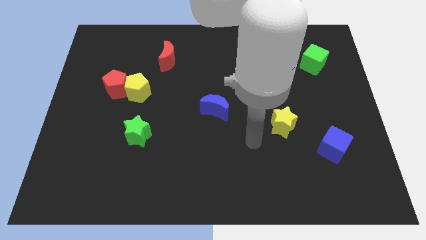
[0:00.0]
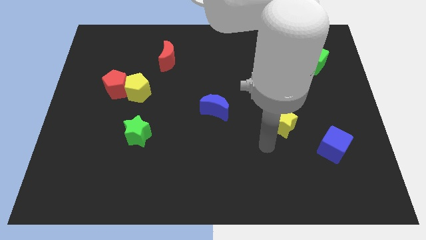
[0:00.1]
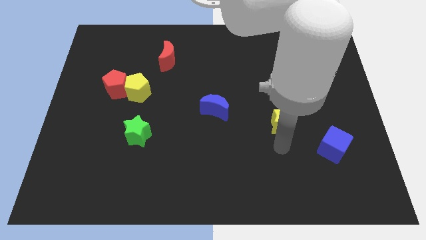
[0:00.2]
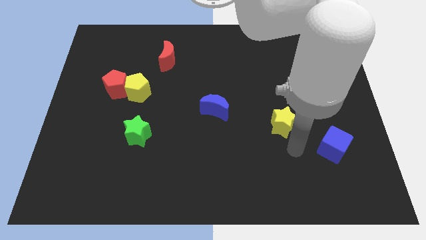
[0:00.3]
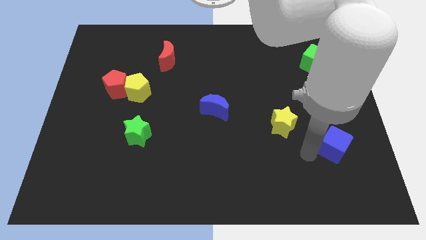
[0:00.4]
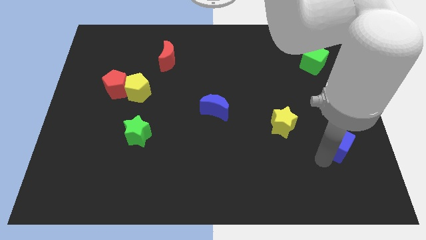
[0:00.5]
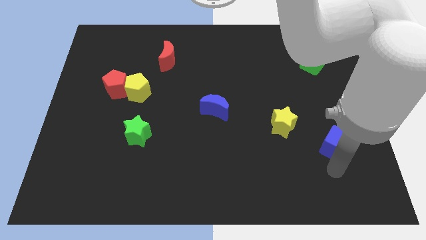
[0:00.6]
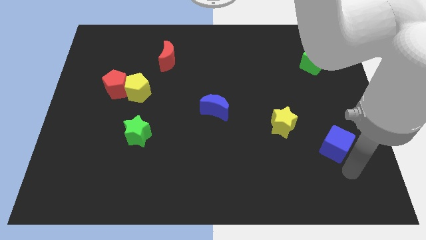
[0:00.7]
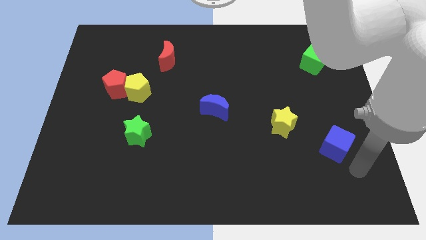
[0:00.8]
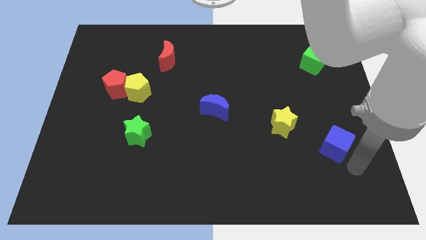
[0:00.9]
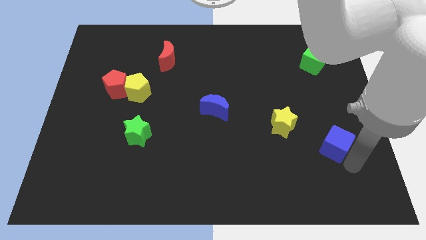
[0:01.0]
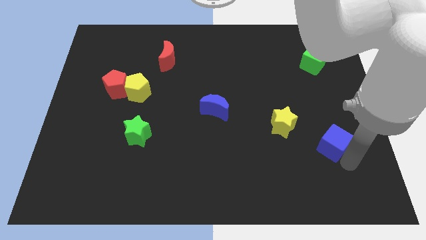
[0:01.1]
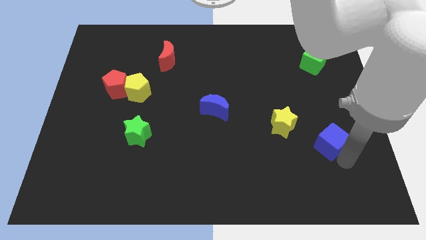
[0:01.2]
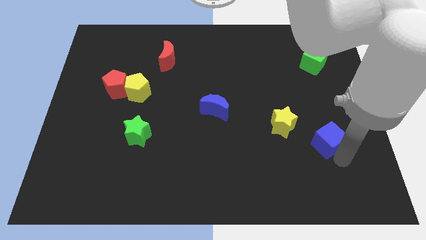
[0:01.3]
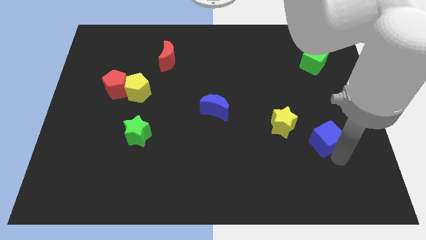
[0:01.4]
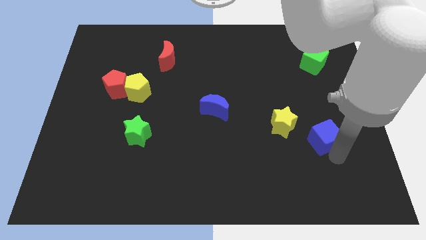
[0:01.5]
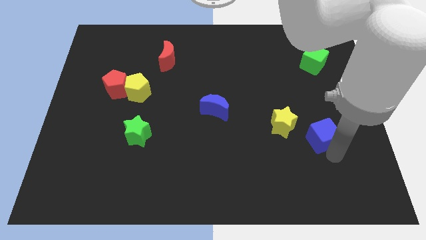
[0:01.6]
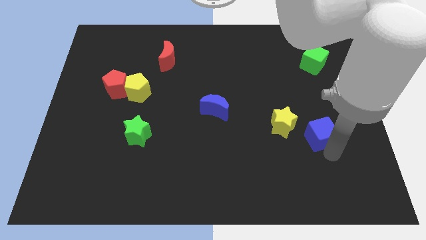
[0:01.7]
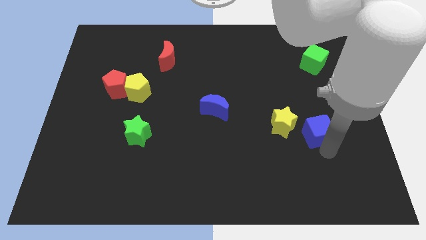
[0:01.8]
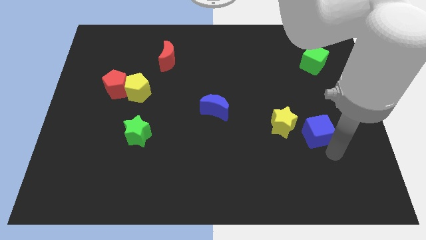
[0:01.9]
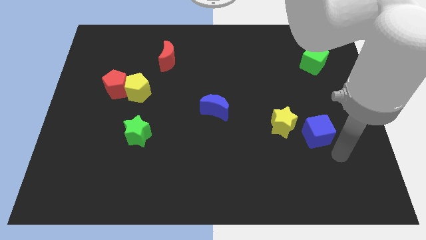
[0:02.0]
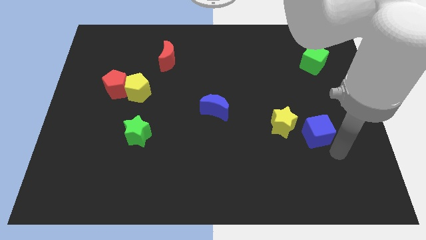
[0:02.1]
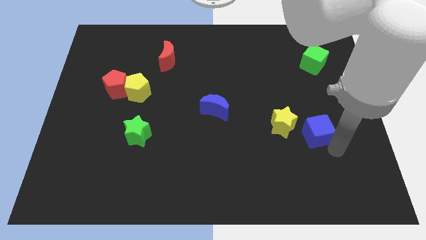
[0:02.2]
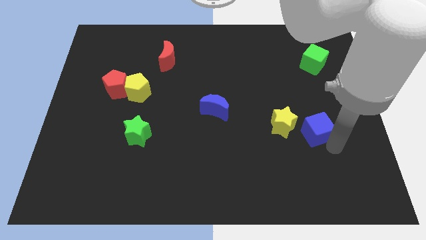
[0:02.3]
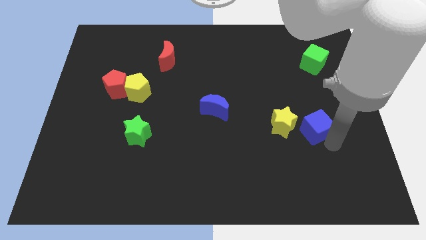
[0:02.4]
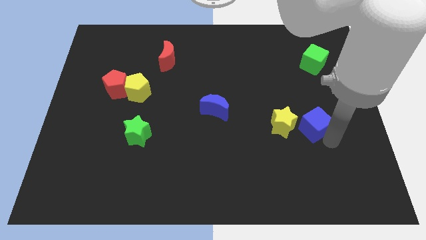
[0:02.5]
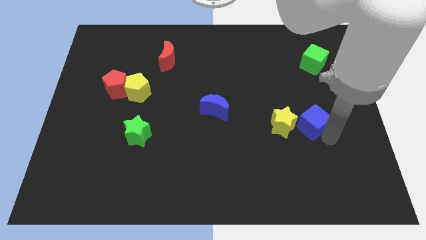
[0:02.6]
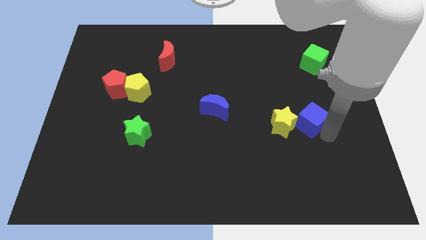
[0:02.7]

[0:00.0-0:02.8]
slightly slide the blue cube diagonally up and to the left

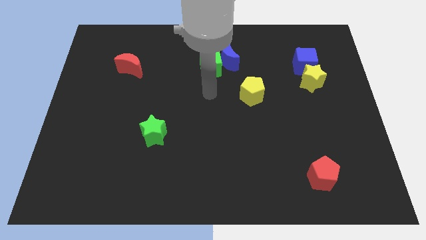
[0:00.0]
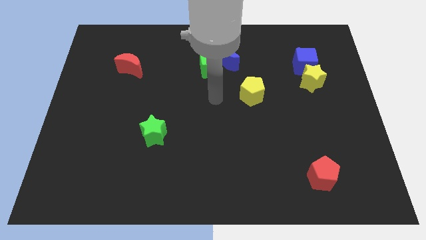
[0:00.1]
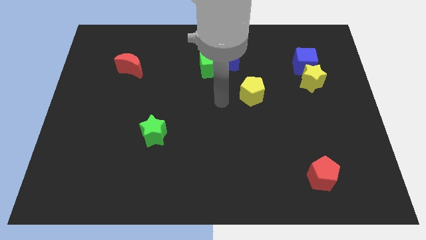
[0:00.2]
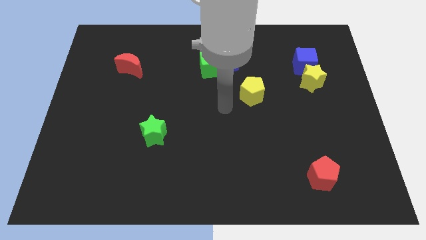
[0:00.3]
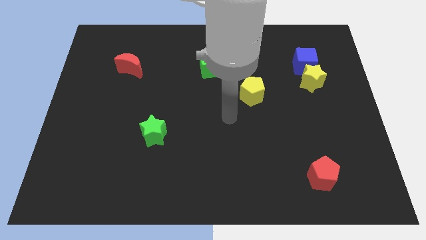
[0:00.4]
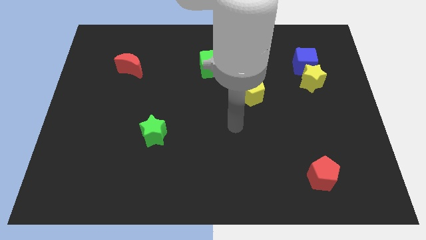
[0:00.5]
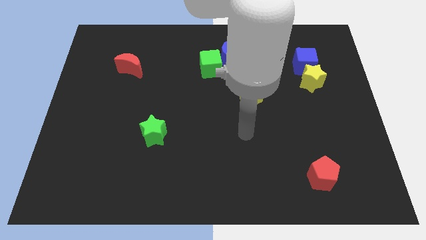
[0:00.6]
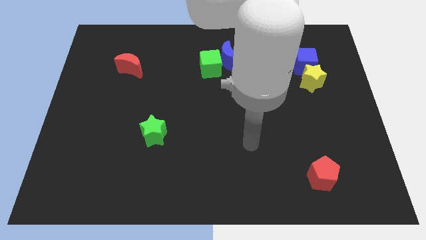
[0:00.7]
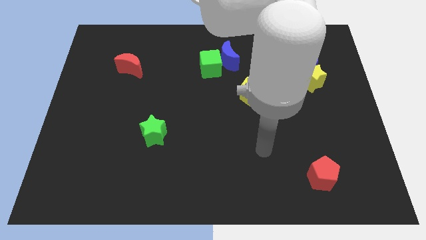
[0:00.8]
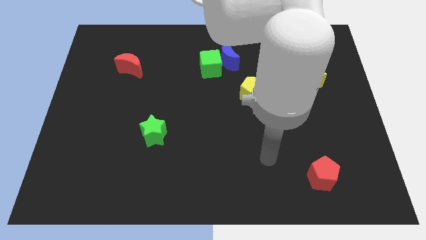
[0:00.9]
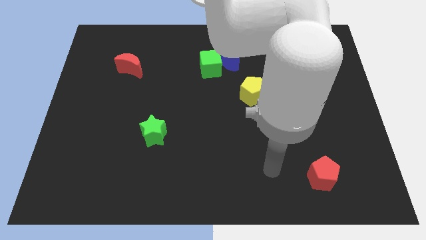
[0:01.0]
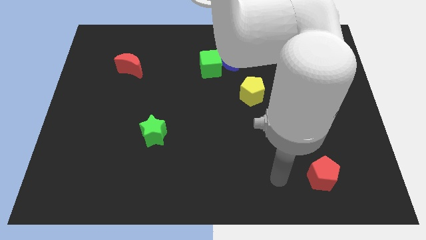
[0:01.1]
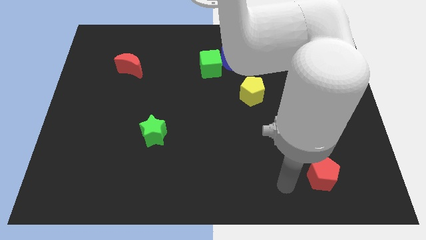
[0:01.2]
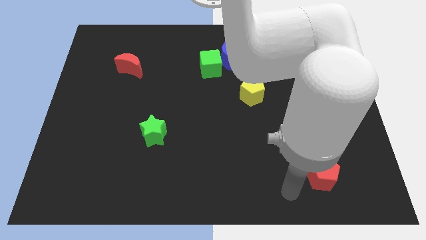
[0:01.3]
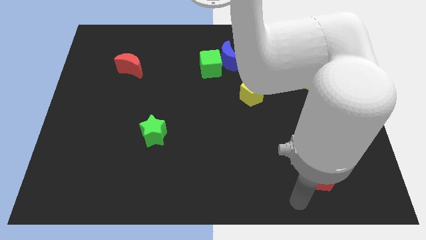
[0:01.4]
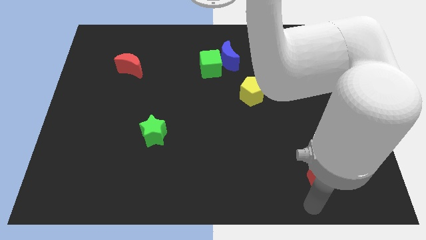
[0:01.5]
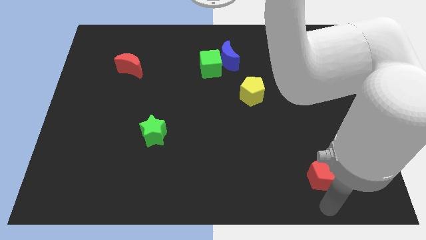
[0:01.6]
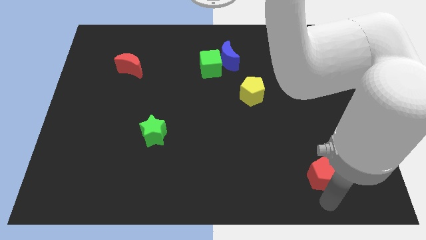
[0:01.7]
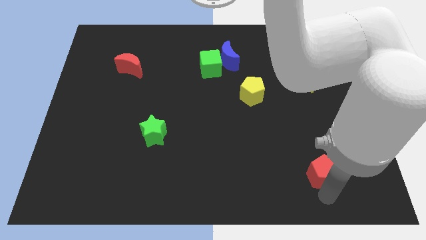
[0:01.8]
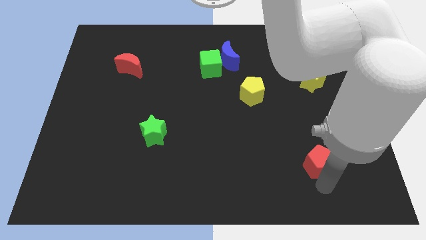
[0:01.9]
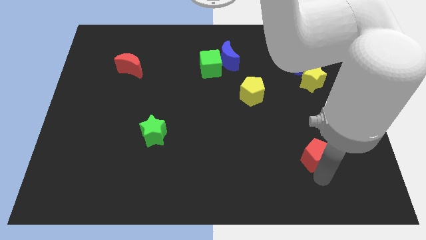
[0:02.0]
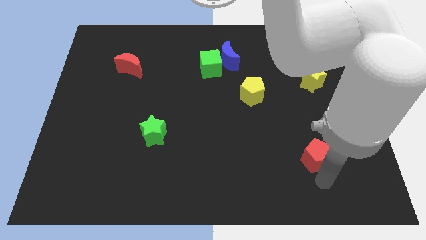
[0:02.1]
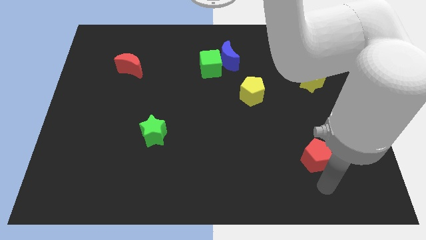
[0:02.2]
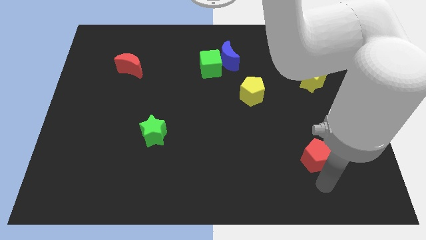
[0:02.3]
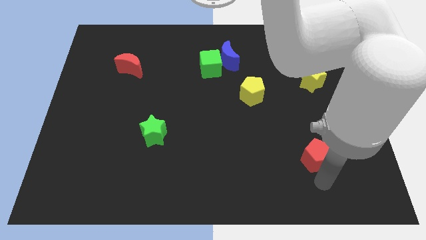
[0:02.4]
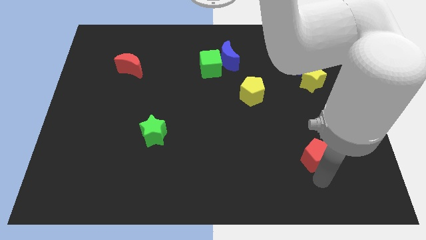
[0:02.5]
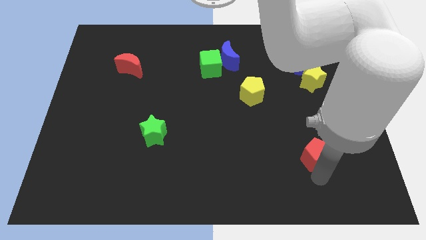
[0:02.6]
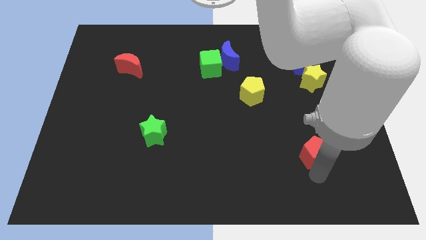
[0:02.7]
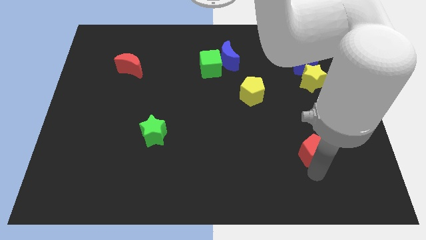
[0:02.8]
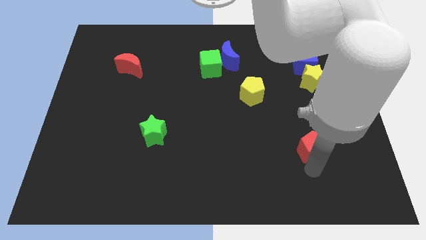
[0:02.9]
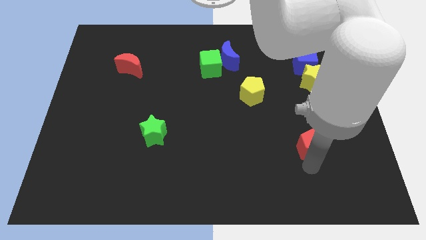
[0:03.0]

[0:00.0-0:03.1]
push the red pentagon upwards somewhat

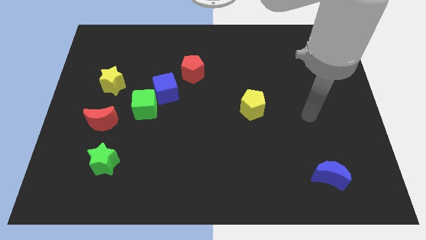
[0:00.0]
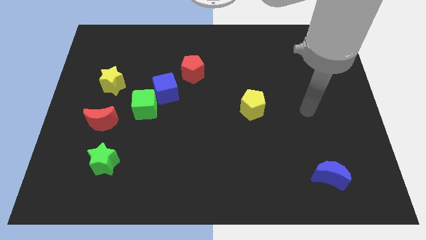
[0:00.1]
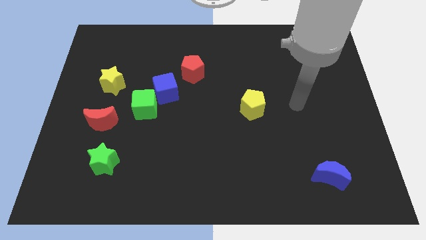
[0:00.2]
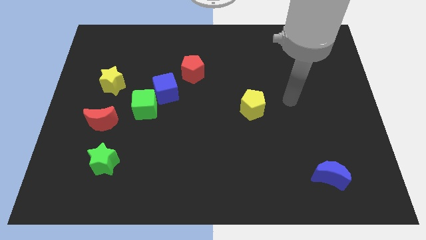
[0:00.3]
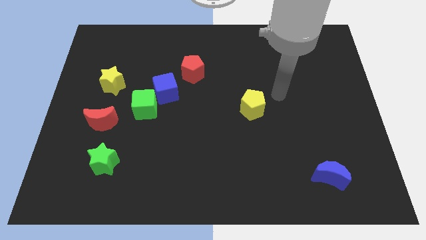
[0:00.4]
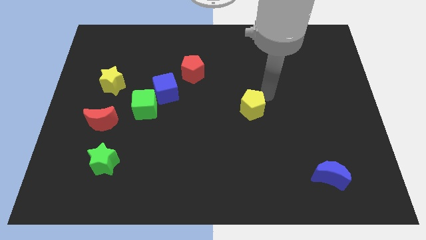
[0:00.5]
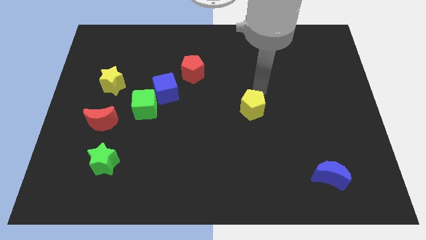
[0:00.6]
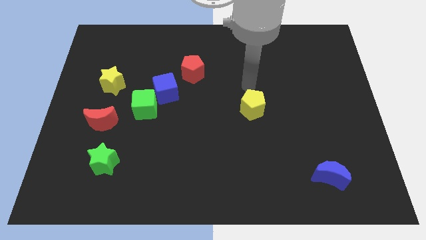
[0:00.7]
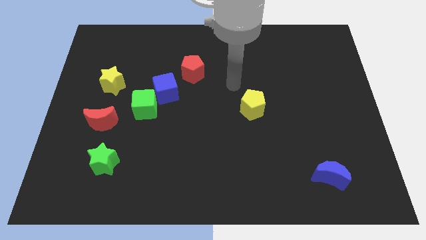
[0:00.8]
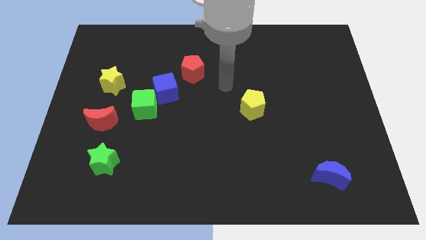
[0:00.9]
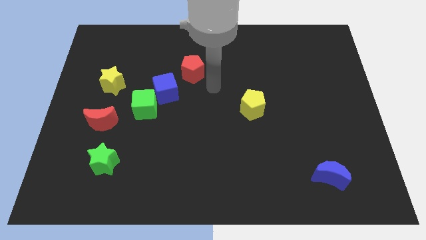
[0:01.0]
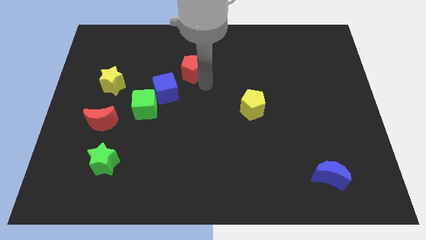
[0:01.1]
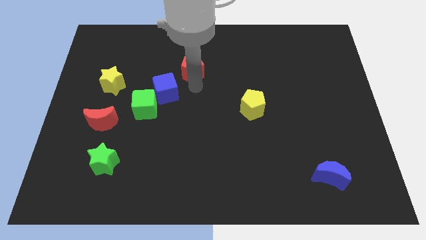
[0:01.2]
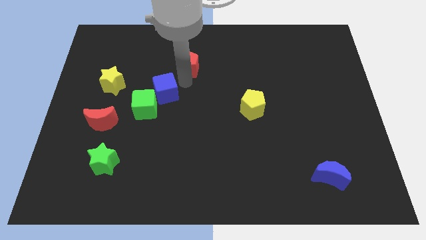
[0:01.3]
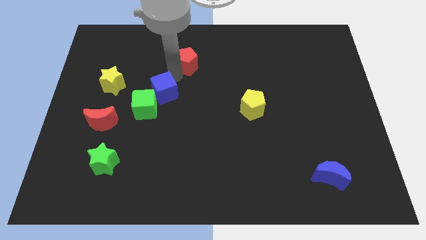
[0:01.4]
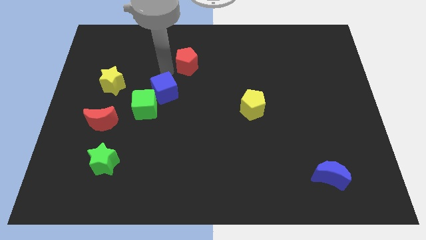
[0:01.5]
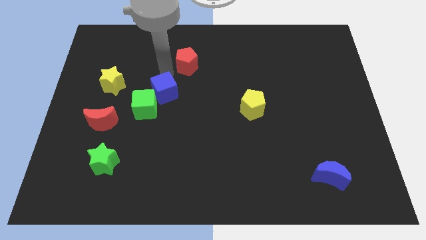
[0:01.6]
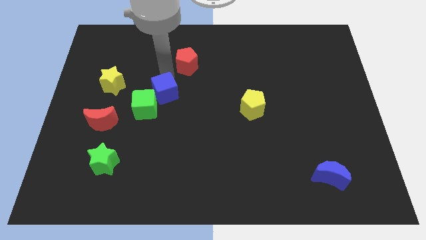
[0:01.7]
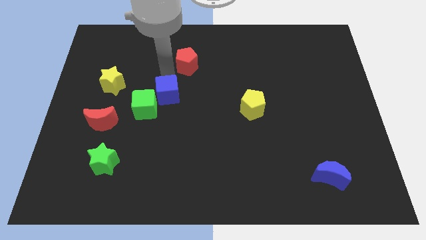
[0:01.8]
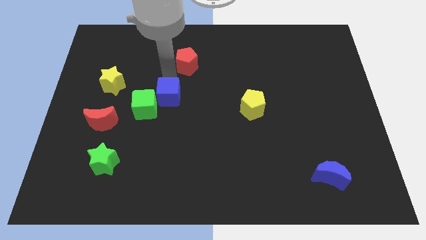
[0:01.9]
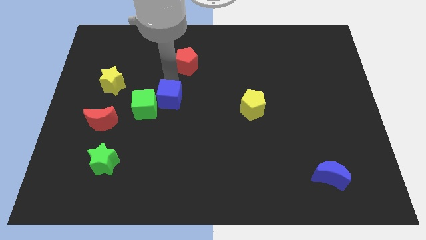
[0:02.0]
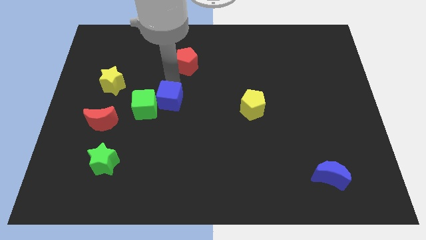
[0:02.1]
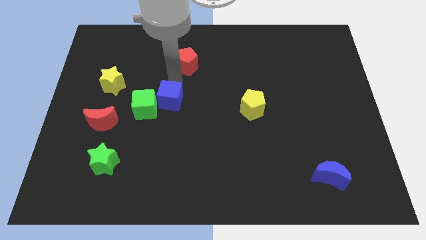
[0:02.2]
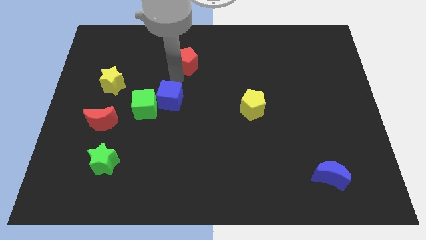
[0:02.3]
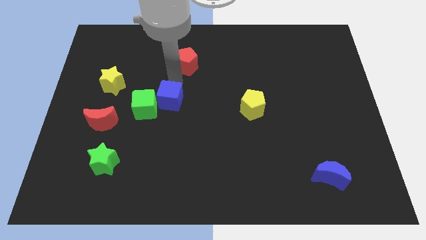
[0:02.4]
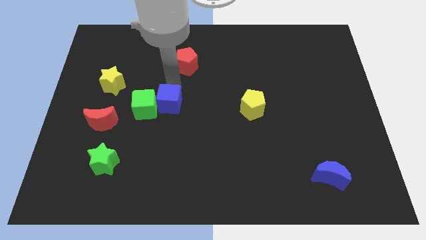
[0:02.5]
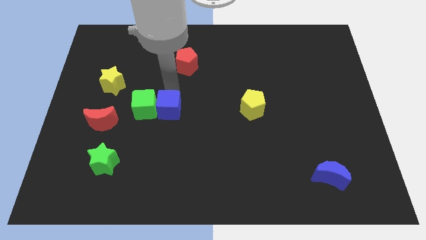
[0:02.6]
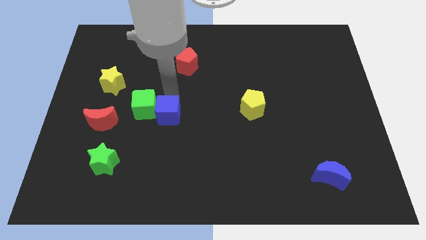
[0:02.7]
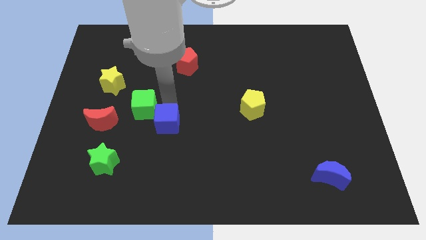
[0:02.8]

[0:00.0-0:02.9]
slightly move the blue cube downwards

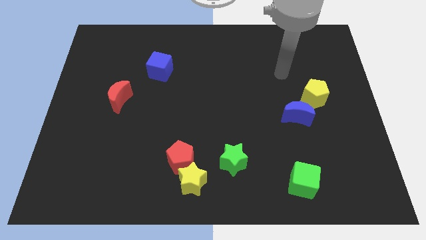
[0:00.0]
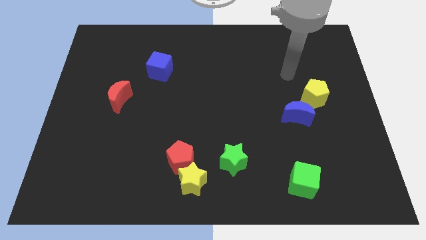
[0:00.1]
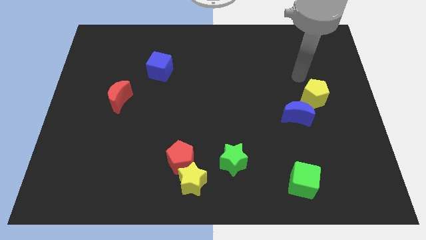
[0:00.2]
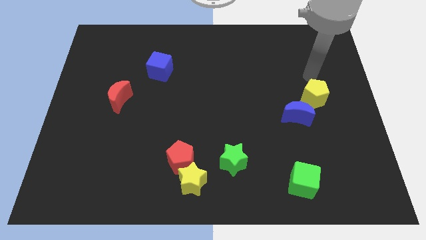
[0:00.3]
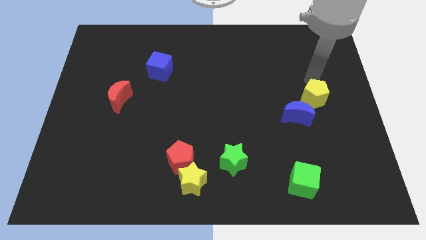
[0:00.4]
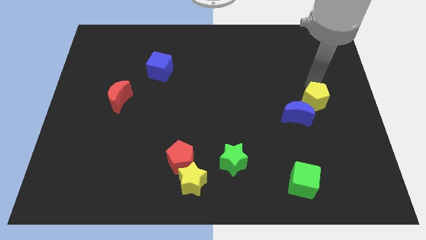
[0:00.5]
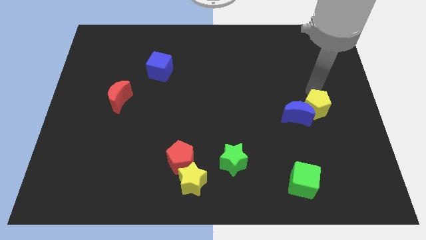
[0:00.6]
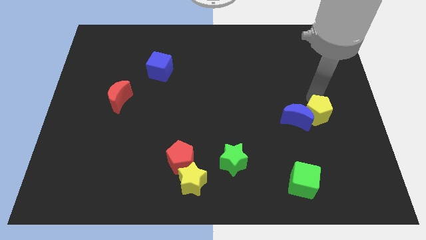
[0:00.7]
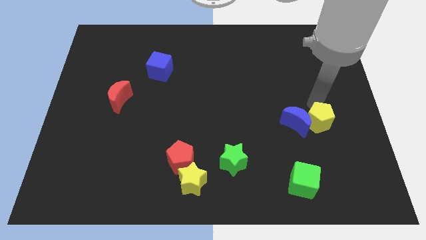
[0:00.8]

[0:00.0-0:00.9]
push the yellow pentagon a bit downwards
